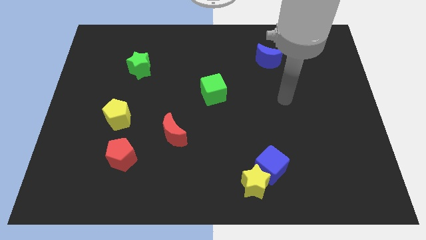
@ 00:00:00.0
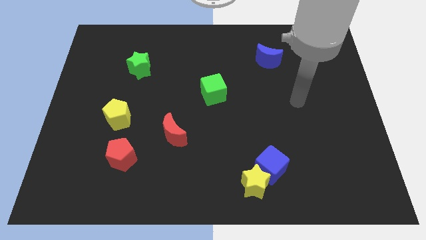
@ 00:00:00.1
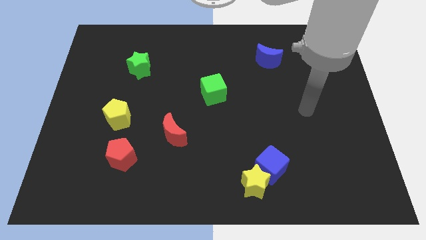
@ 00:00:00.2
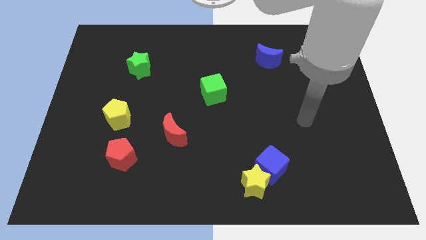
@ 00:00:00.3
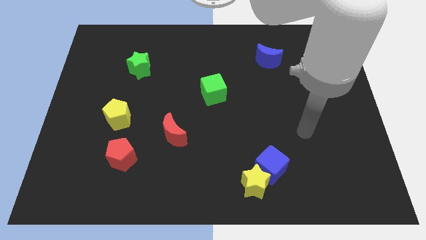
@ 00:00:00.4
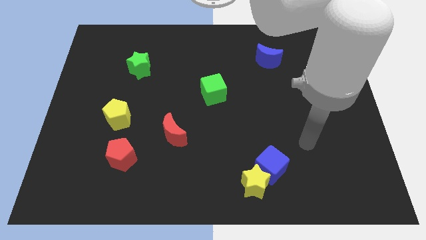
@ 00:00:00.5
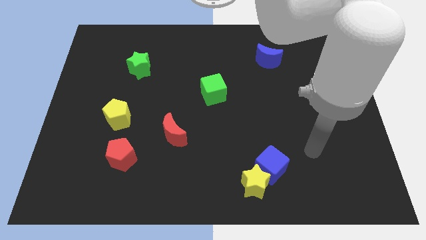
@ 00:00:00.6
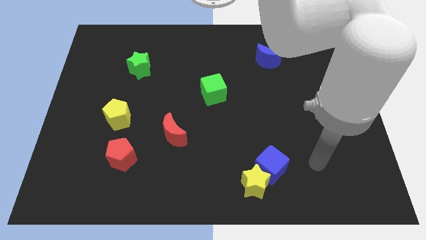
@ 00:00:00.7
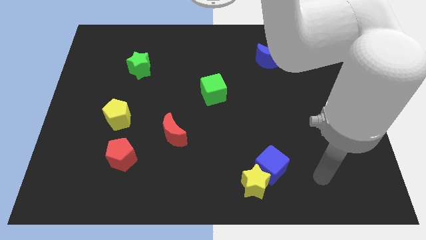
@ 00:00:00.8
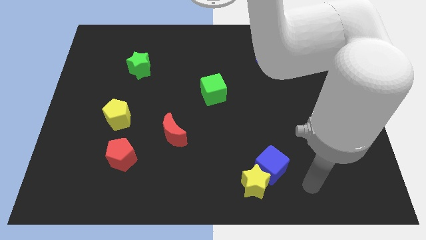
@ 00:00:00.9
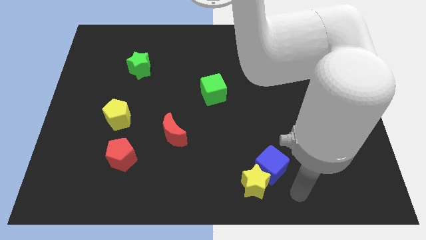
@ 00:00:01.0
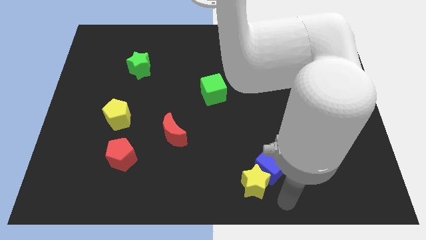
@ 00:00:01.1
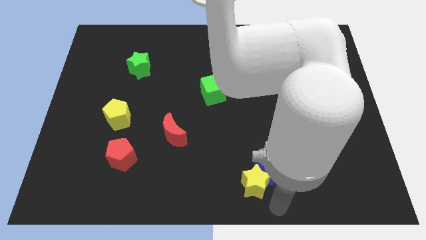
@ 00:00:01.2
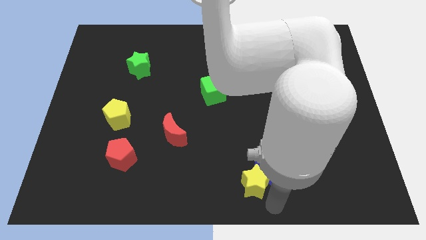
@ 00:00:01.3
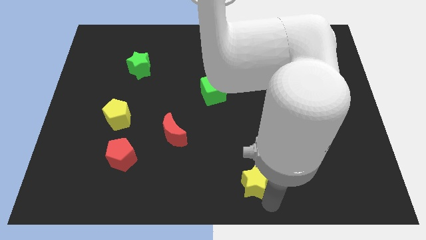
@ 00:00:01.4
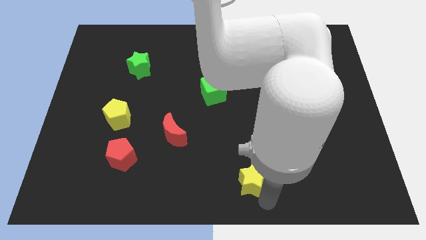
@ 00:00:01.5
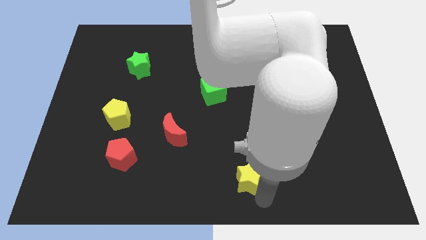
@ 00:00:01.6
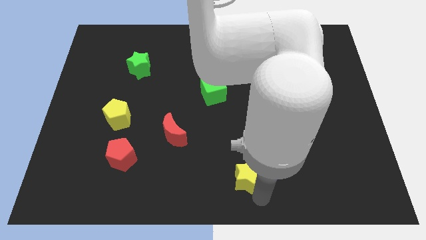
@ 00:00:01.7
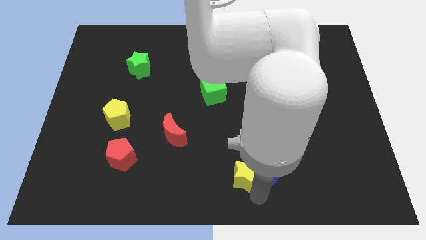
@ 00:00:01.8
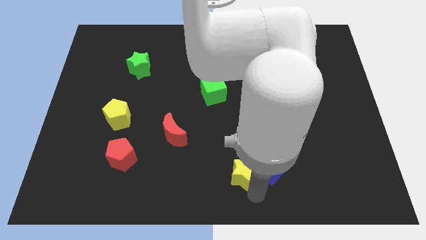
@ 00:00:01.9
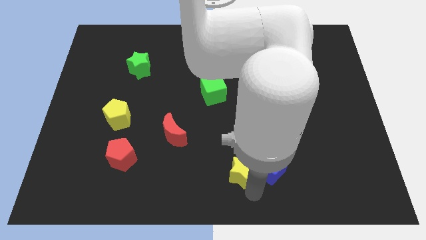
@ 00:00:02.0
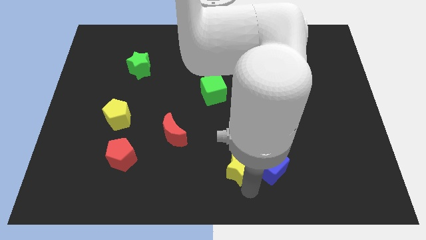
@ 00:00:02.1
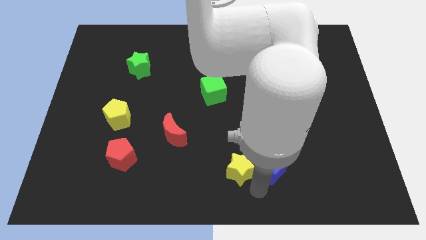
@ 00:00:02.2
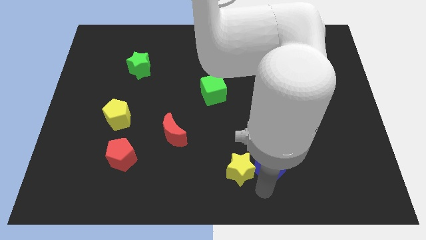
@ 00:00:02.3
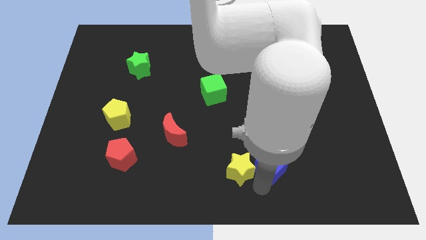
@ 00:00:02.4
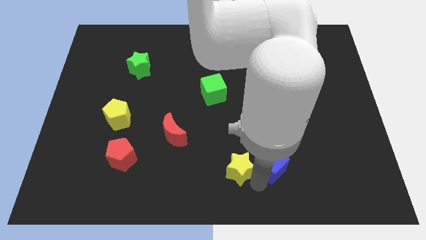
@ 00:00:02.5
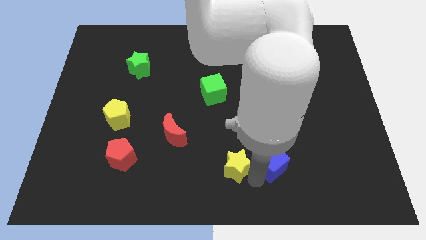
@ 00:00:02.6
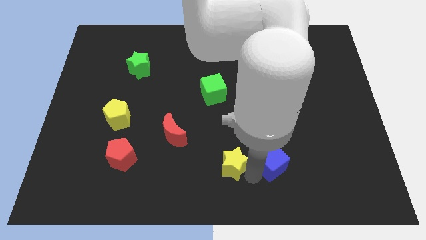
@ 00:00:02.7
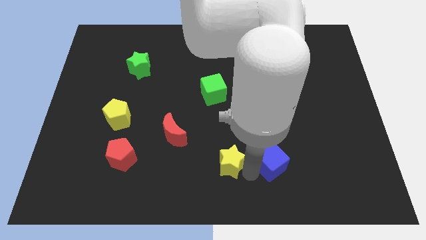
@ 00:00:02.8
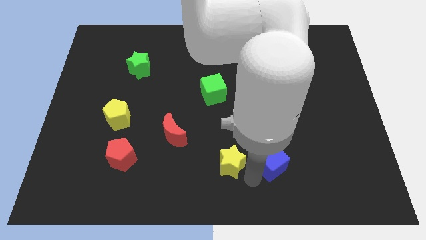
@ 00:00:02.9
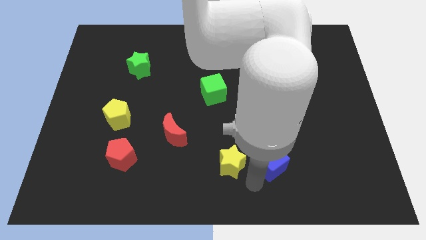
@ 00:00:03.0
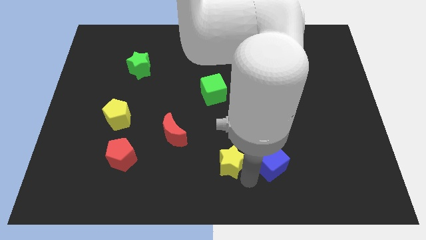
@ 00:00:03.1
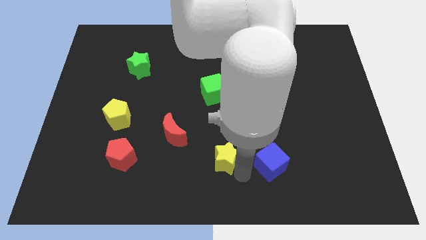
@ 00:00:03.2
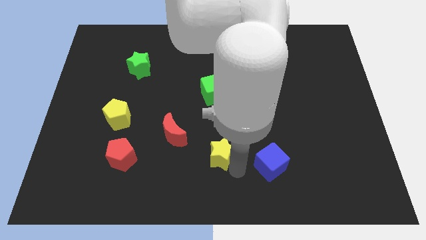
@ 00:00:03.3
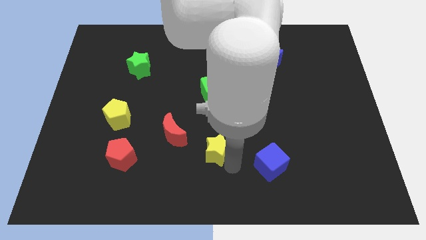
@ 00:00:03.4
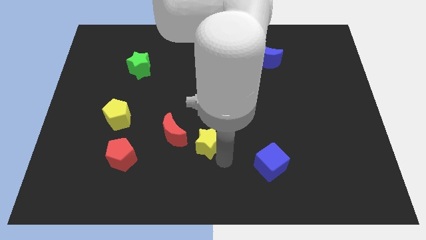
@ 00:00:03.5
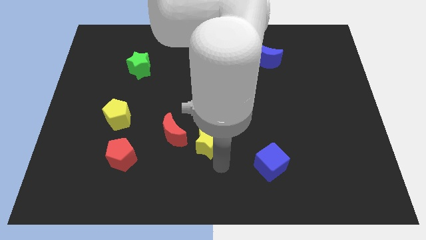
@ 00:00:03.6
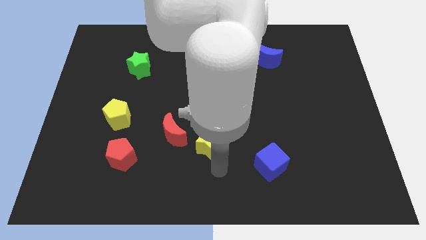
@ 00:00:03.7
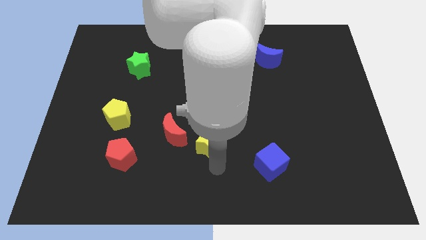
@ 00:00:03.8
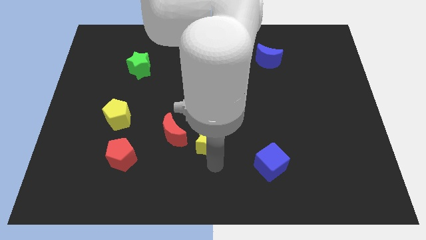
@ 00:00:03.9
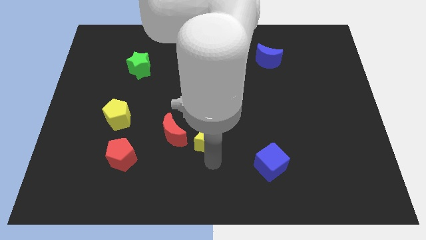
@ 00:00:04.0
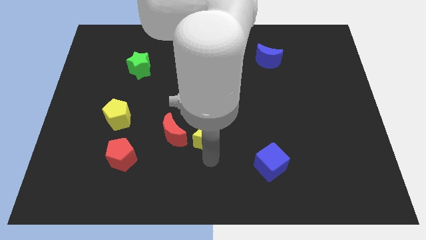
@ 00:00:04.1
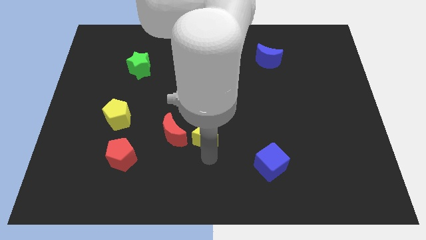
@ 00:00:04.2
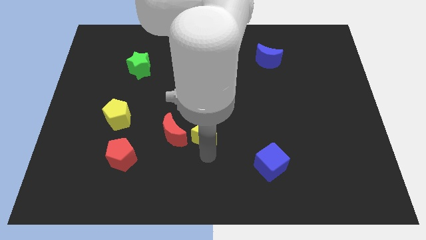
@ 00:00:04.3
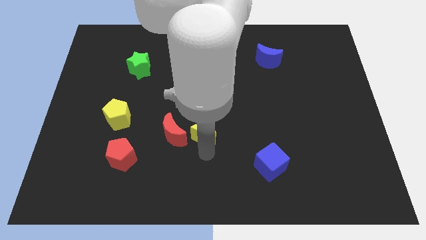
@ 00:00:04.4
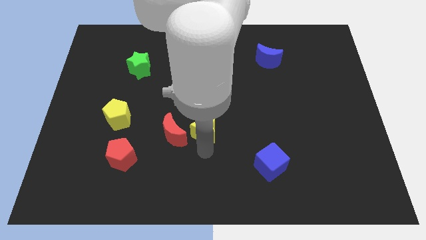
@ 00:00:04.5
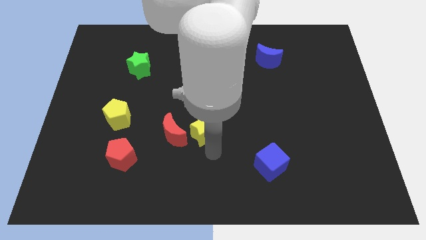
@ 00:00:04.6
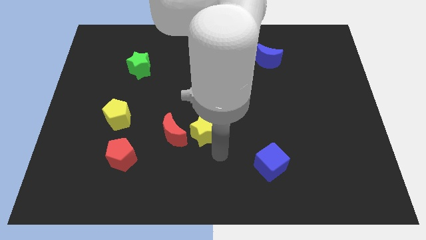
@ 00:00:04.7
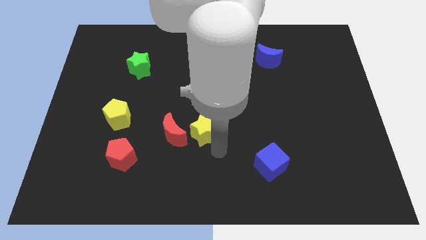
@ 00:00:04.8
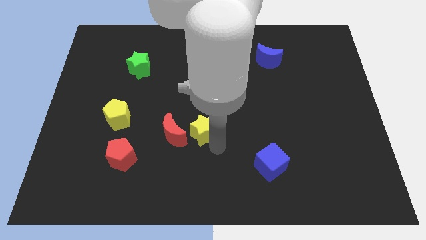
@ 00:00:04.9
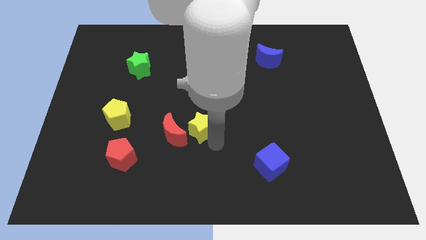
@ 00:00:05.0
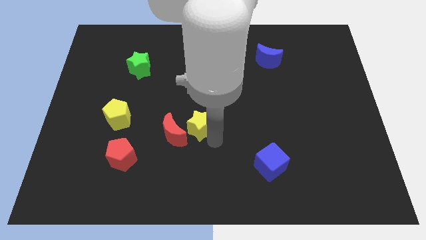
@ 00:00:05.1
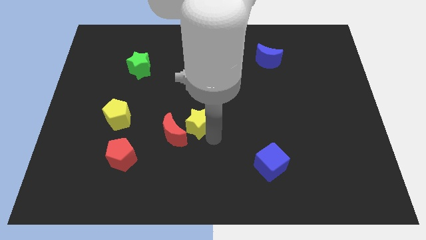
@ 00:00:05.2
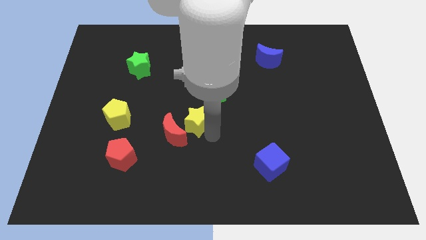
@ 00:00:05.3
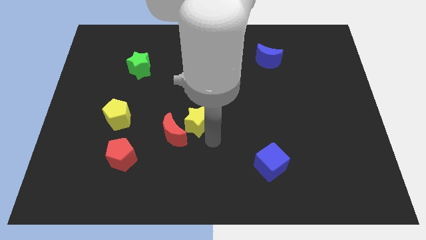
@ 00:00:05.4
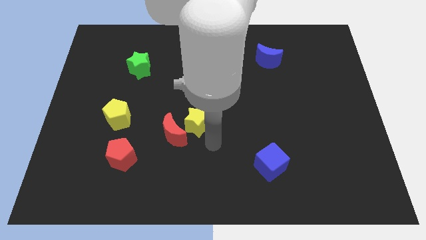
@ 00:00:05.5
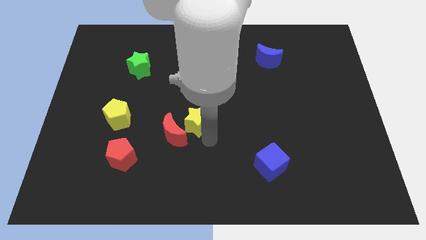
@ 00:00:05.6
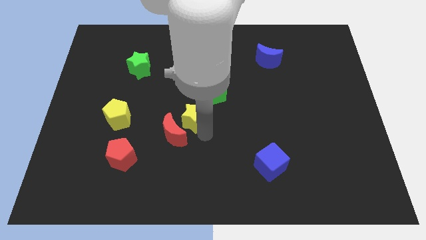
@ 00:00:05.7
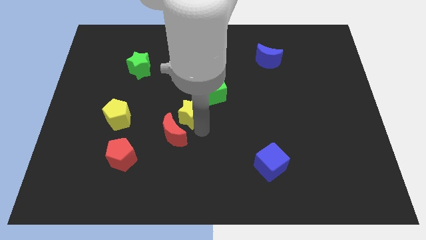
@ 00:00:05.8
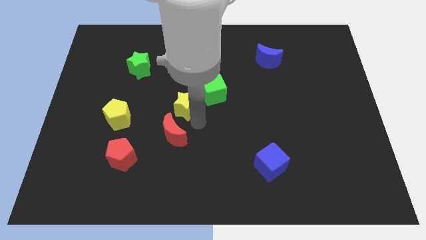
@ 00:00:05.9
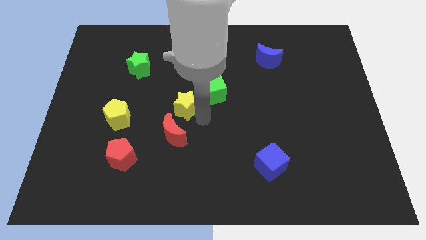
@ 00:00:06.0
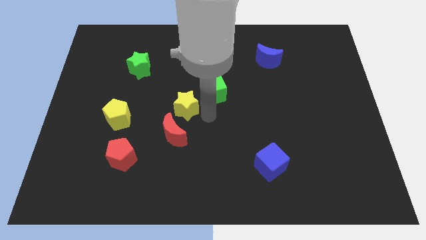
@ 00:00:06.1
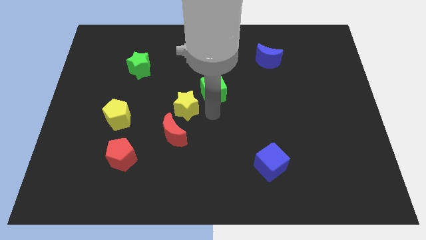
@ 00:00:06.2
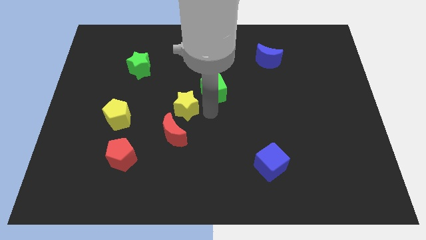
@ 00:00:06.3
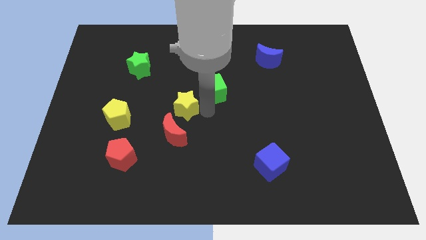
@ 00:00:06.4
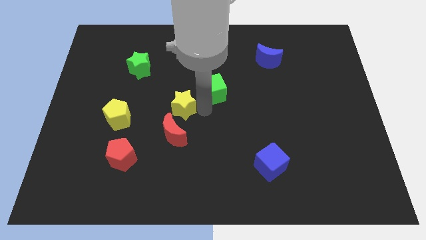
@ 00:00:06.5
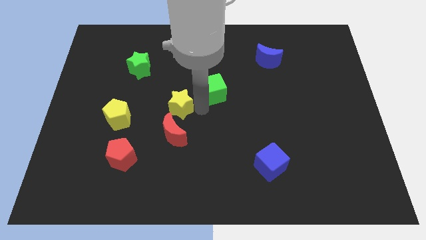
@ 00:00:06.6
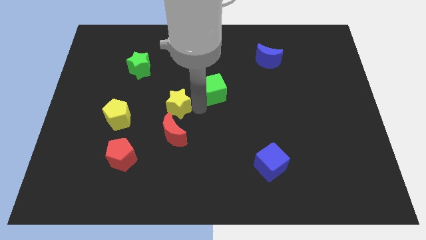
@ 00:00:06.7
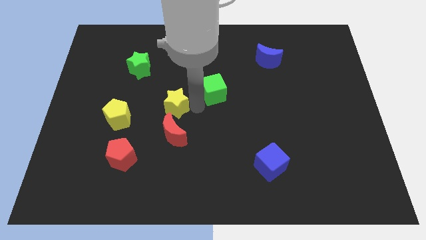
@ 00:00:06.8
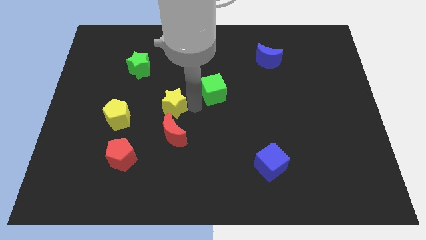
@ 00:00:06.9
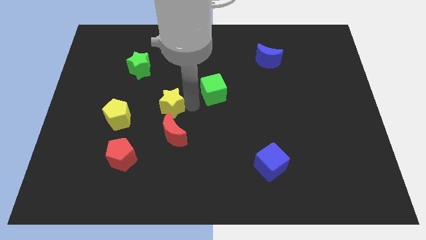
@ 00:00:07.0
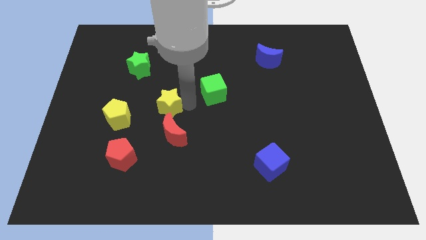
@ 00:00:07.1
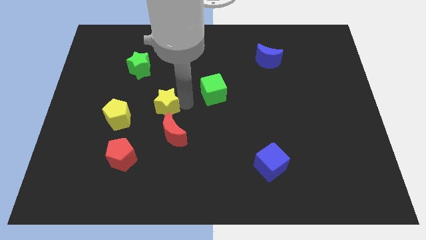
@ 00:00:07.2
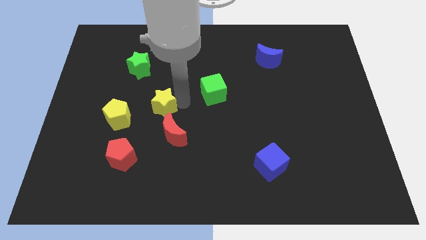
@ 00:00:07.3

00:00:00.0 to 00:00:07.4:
push the yellow star diagonally up and to the right of the yellow pentagon

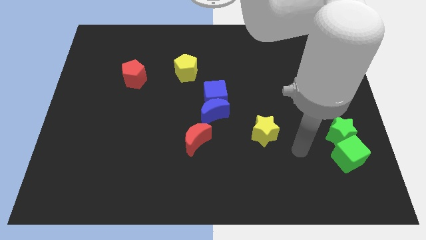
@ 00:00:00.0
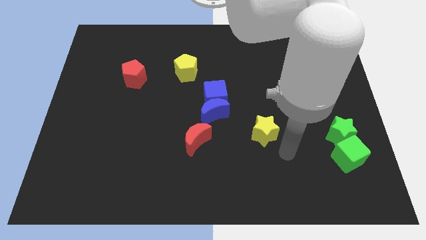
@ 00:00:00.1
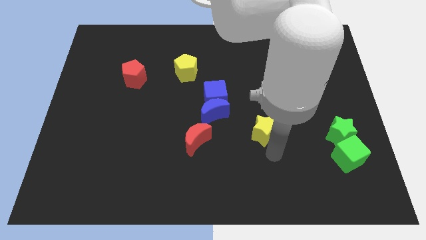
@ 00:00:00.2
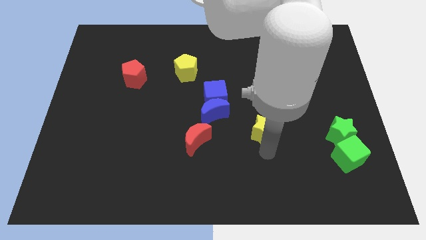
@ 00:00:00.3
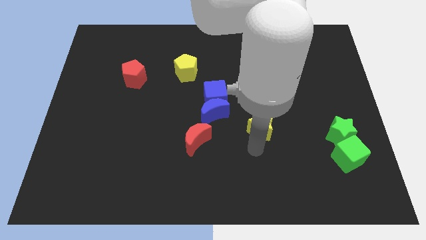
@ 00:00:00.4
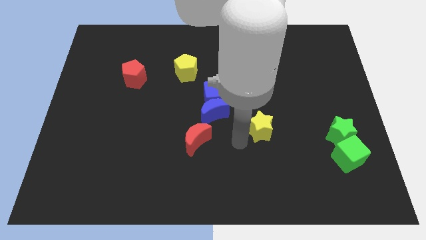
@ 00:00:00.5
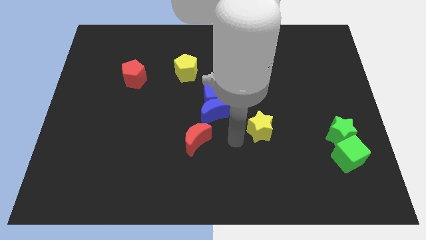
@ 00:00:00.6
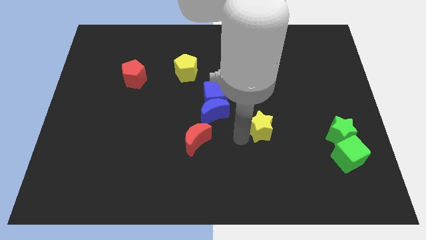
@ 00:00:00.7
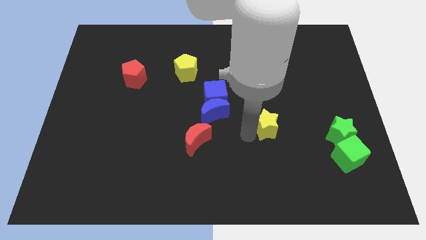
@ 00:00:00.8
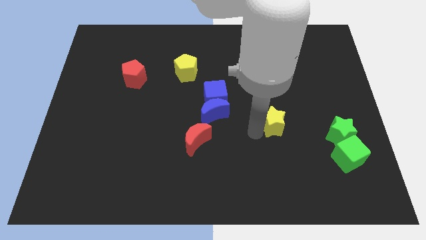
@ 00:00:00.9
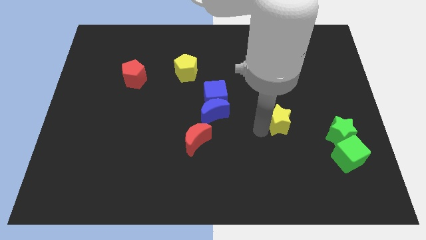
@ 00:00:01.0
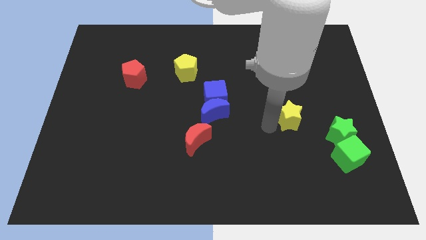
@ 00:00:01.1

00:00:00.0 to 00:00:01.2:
move the yellow star to the top left side of the green star
